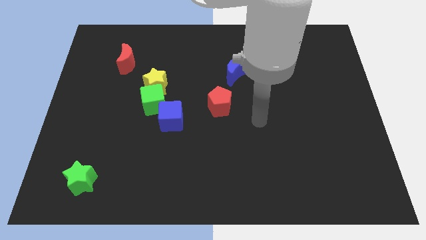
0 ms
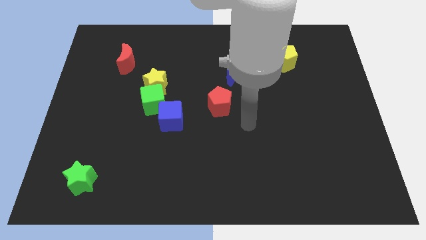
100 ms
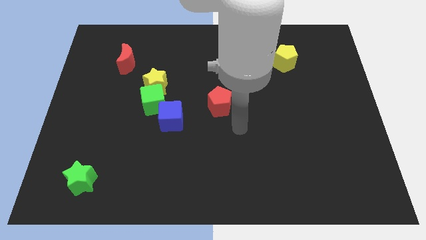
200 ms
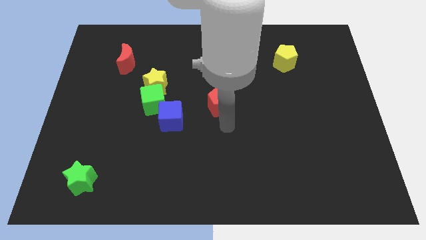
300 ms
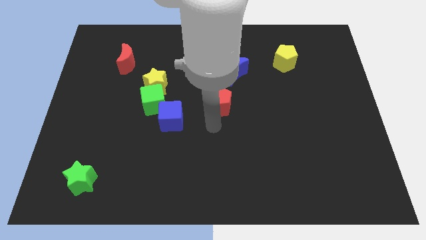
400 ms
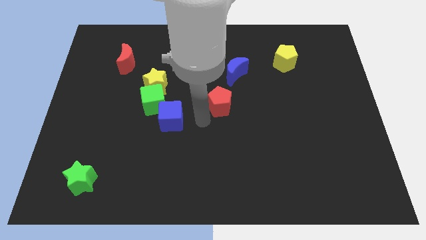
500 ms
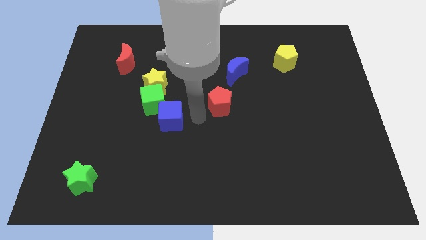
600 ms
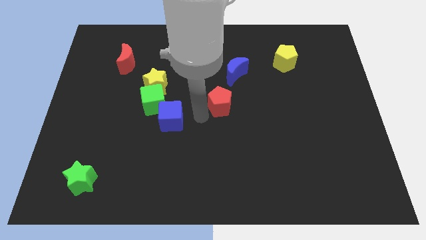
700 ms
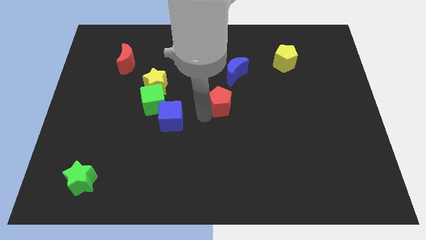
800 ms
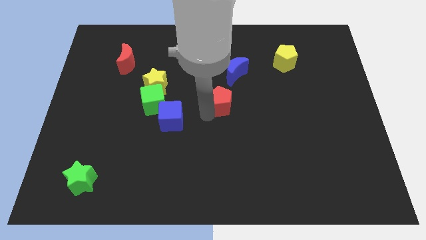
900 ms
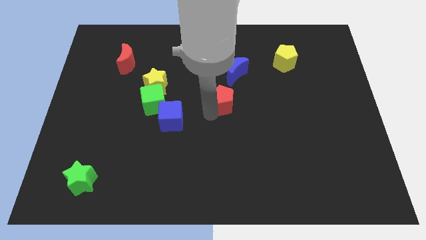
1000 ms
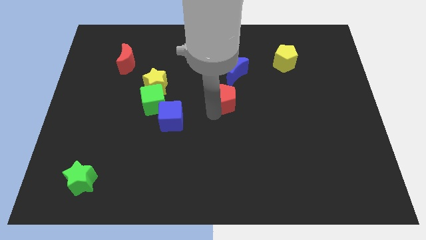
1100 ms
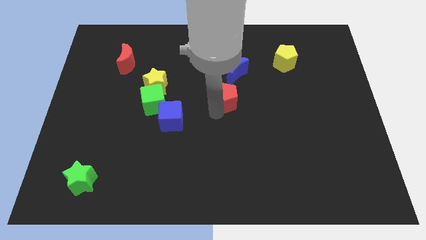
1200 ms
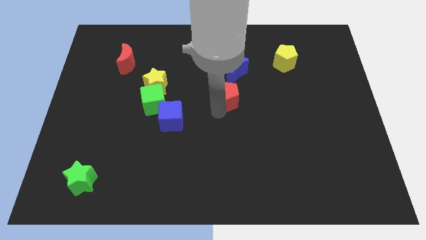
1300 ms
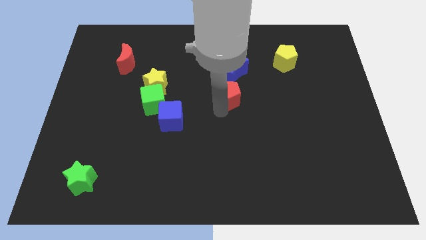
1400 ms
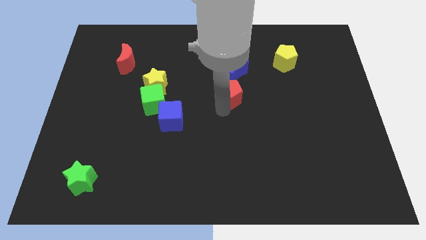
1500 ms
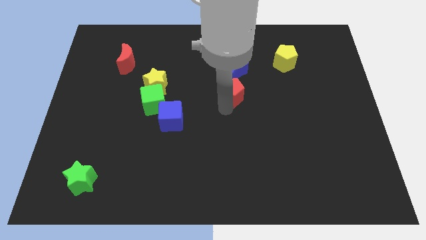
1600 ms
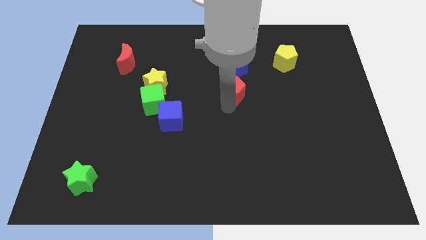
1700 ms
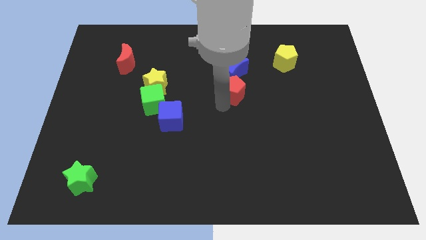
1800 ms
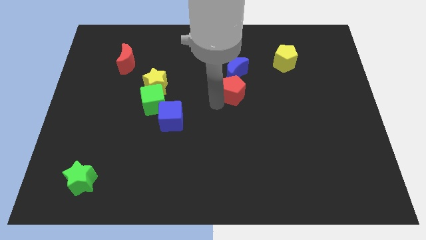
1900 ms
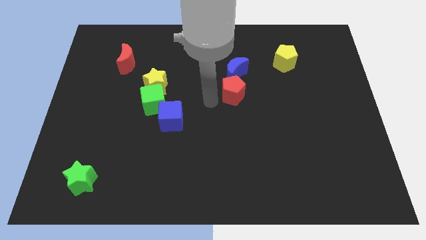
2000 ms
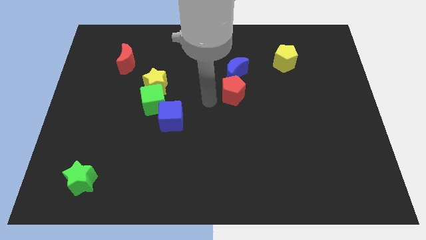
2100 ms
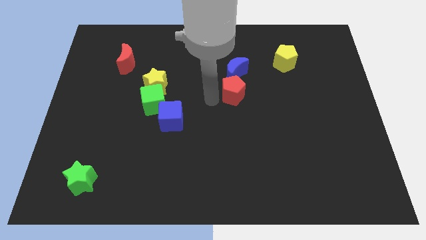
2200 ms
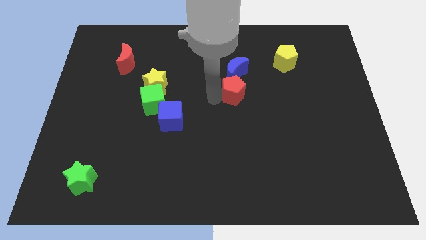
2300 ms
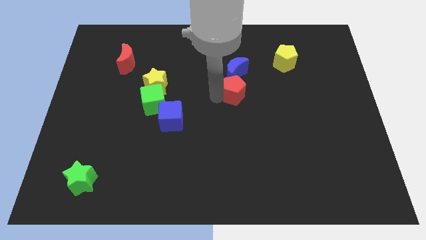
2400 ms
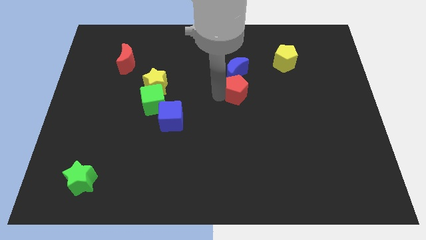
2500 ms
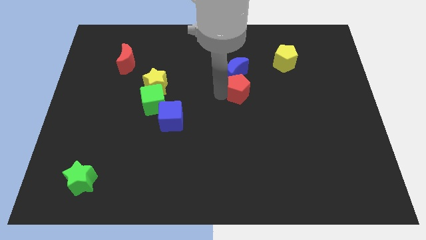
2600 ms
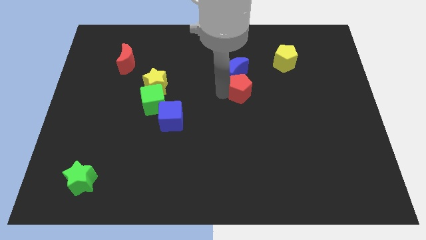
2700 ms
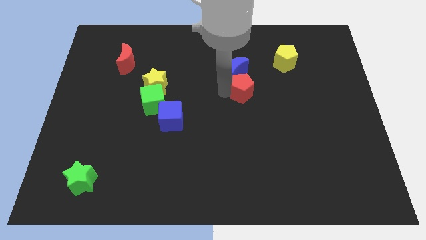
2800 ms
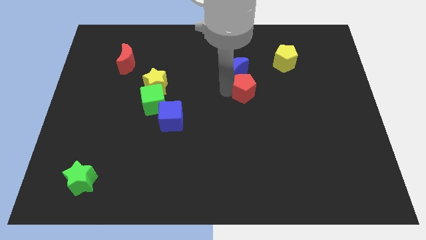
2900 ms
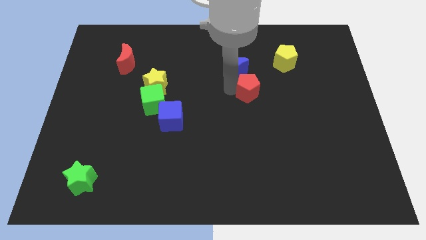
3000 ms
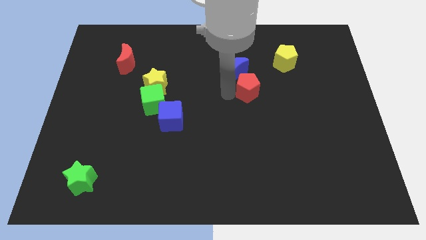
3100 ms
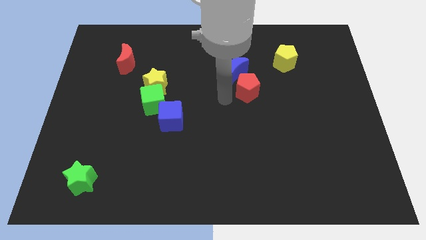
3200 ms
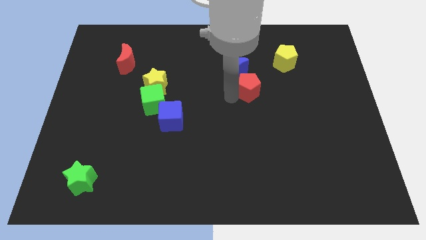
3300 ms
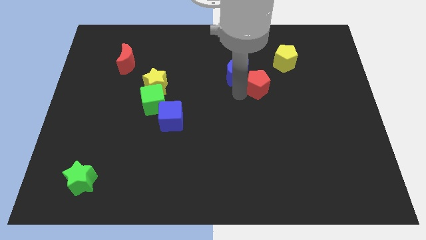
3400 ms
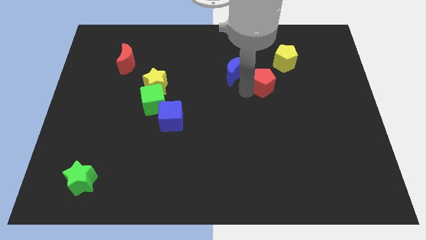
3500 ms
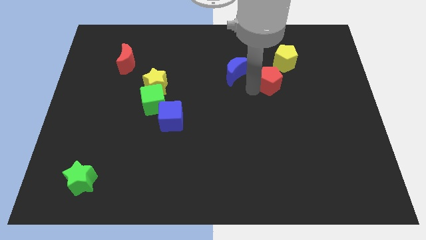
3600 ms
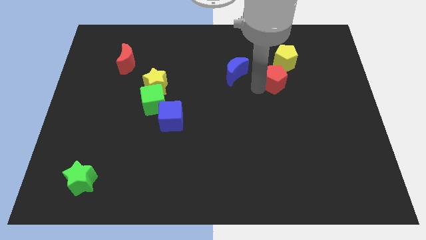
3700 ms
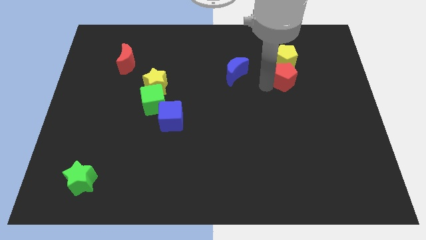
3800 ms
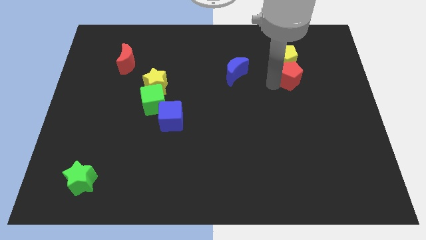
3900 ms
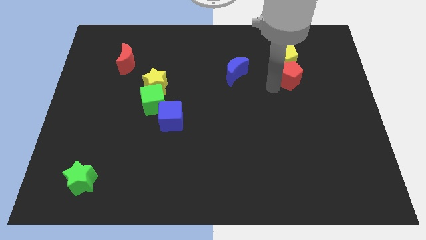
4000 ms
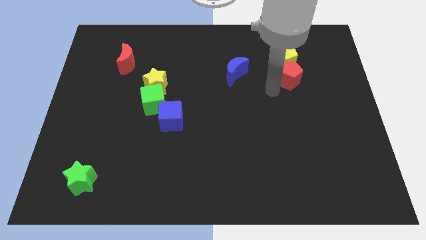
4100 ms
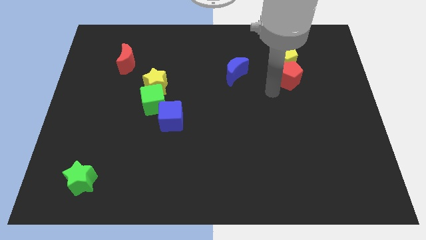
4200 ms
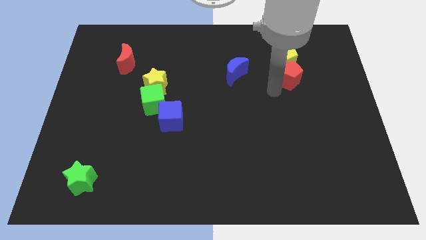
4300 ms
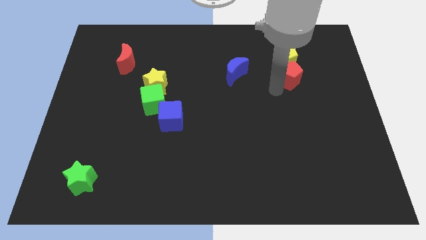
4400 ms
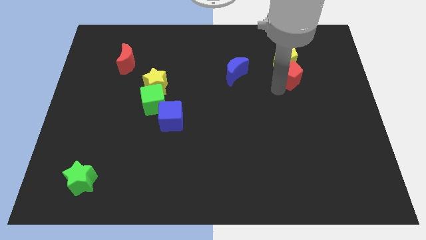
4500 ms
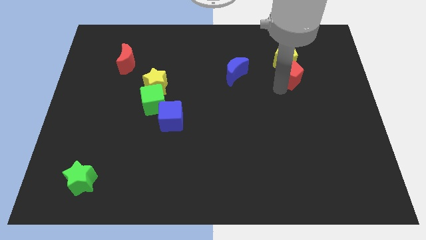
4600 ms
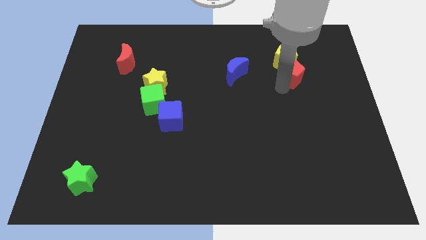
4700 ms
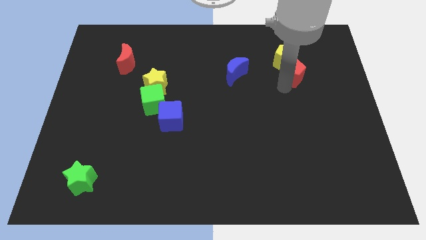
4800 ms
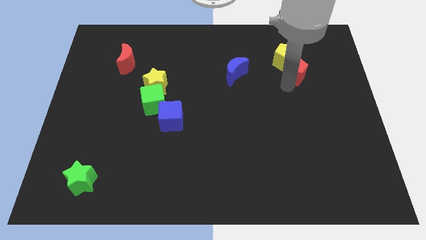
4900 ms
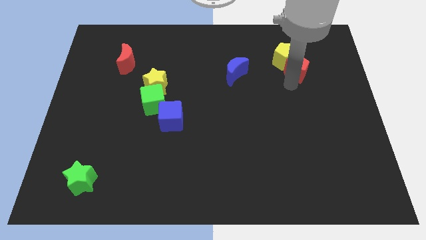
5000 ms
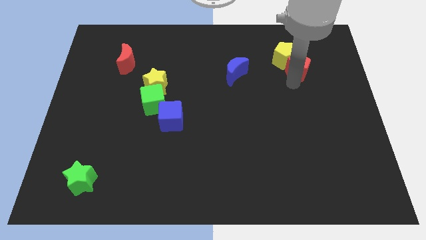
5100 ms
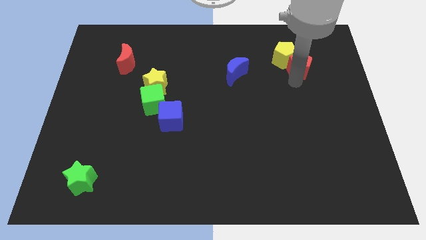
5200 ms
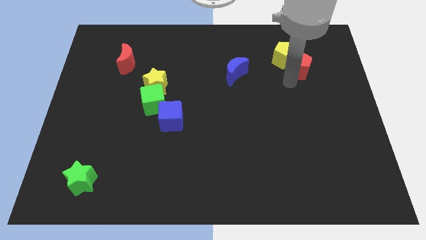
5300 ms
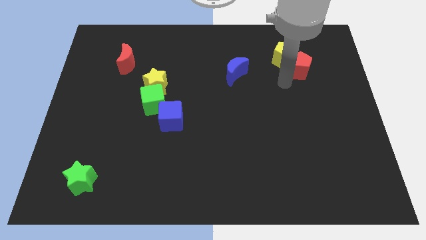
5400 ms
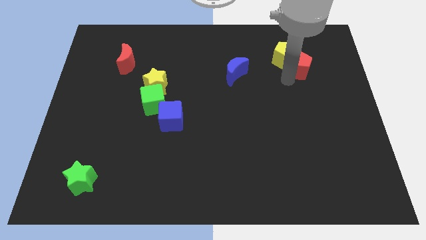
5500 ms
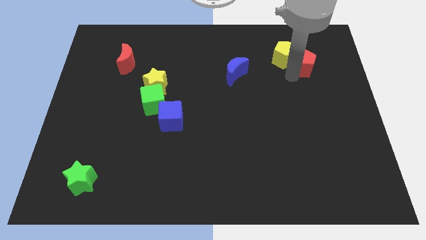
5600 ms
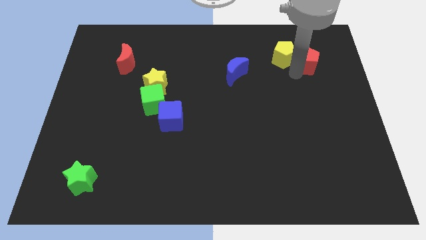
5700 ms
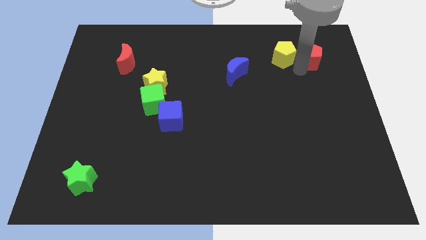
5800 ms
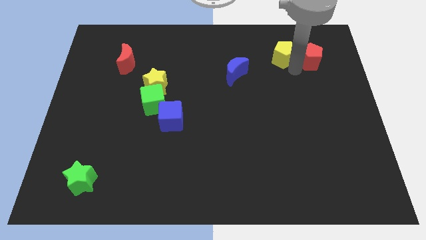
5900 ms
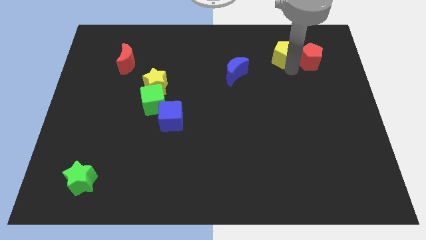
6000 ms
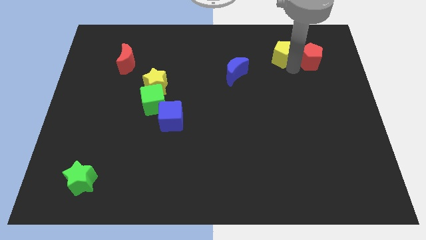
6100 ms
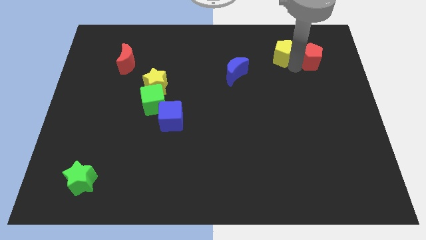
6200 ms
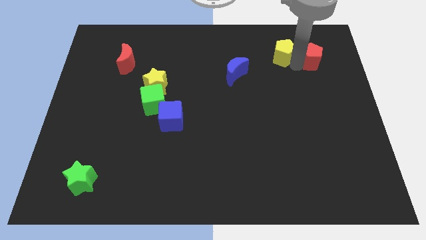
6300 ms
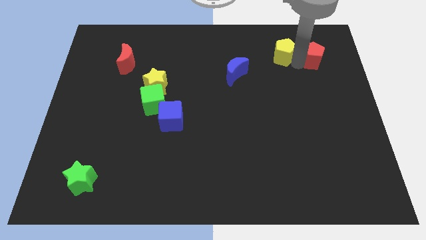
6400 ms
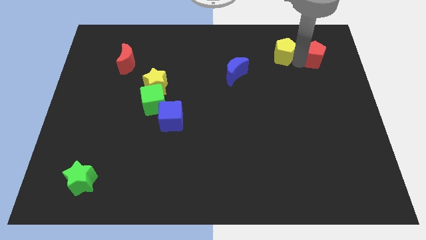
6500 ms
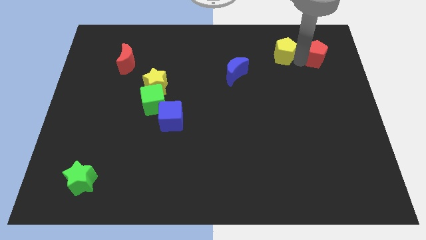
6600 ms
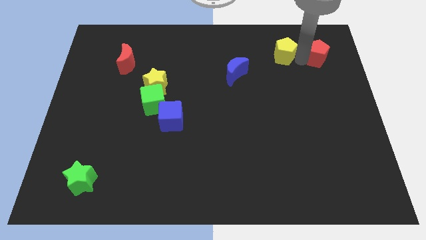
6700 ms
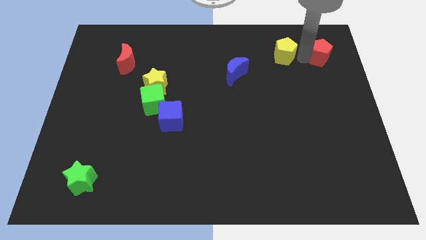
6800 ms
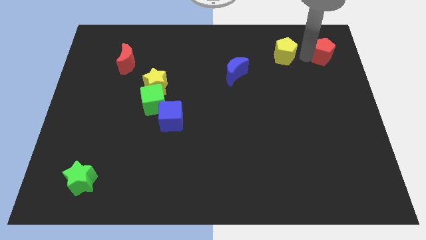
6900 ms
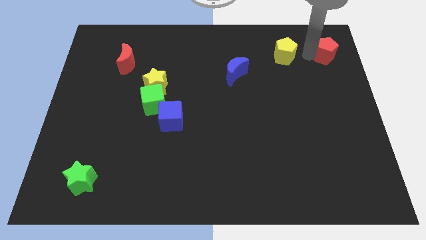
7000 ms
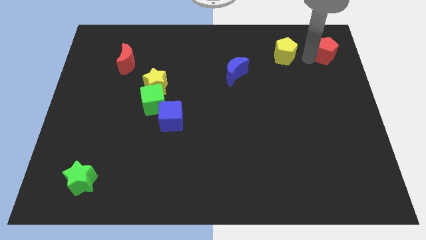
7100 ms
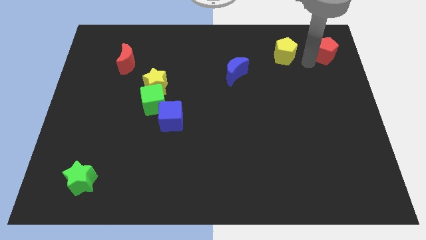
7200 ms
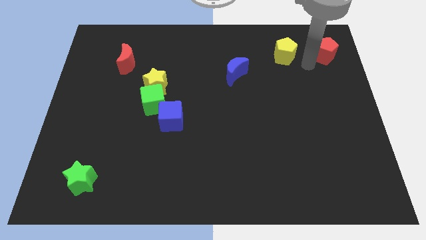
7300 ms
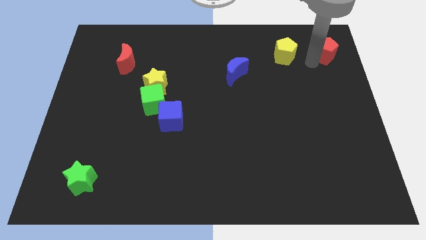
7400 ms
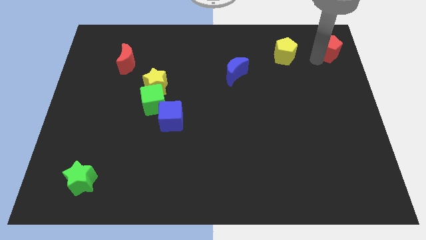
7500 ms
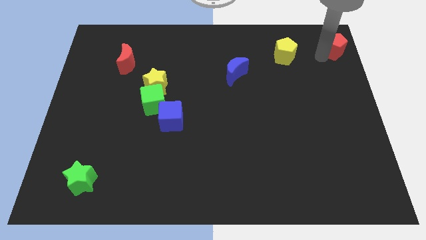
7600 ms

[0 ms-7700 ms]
move the red pentagon to the top right
